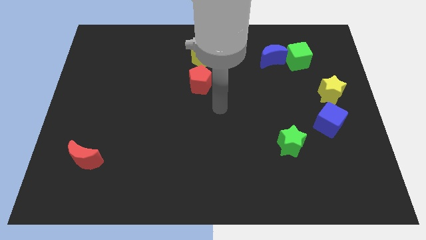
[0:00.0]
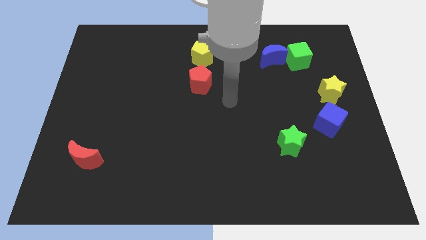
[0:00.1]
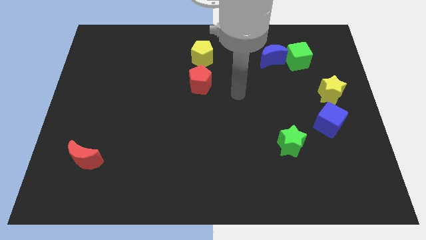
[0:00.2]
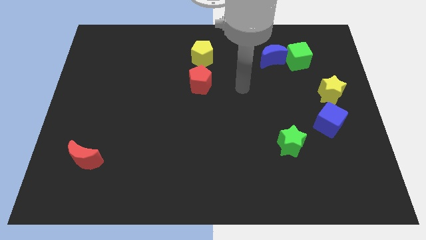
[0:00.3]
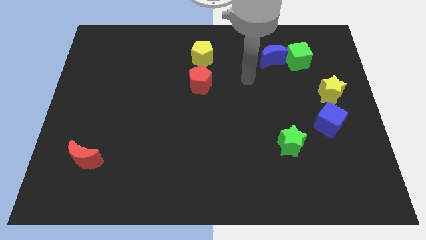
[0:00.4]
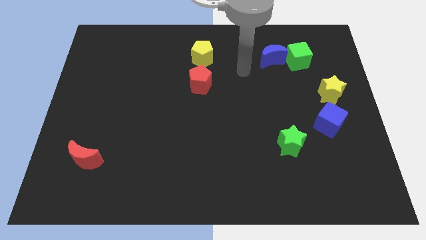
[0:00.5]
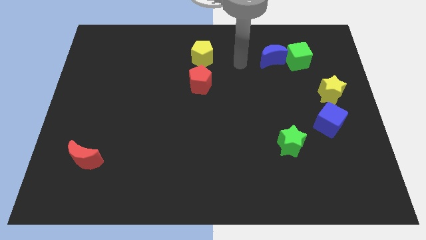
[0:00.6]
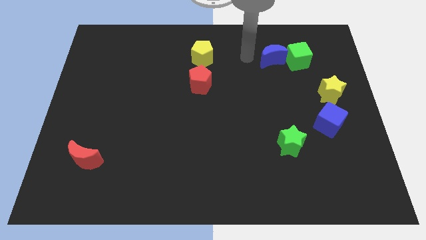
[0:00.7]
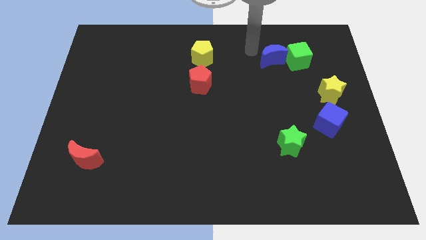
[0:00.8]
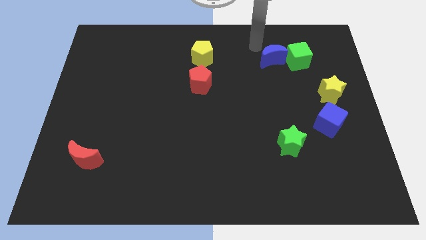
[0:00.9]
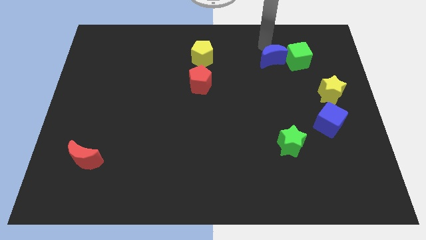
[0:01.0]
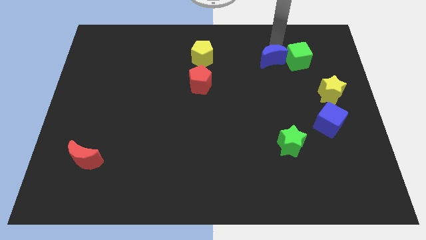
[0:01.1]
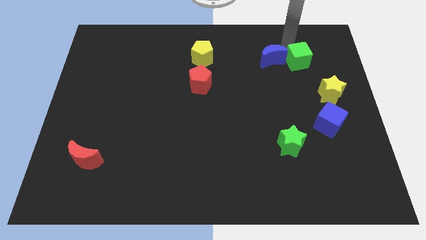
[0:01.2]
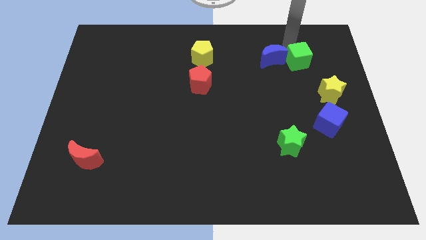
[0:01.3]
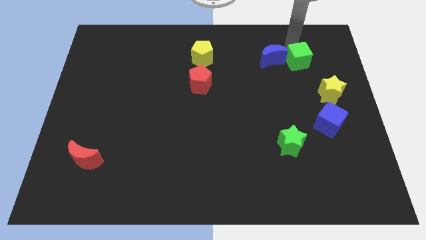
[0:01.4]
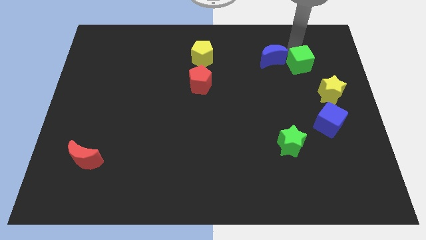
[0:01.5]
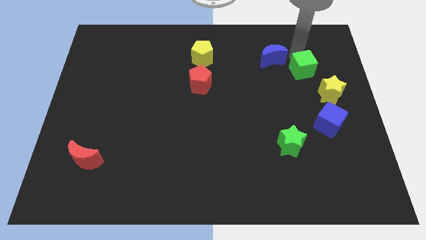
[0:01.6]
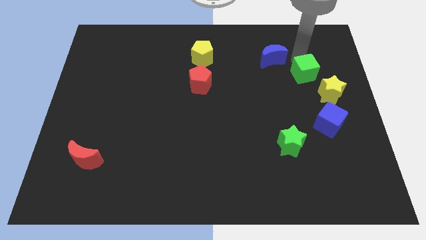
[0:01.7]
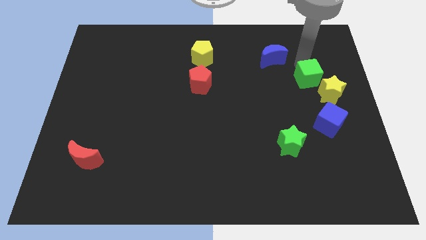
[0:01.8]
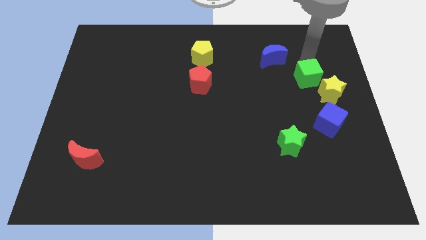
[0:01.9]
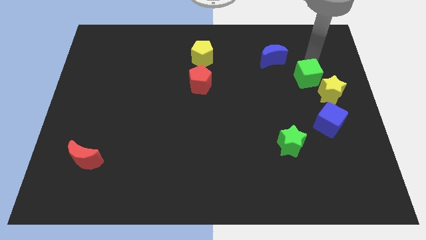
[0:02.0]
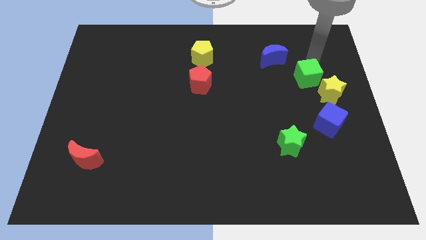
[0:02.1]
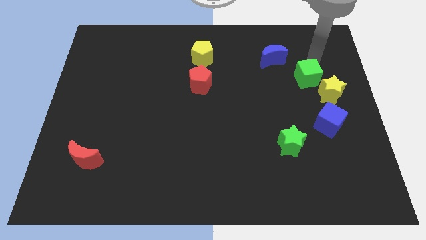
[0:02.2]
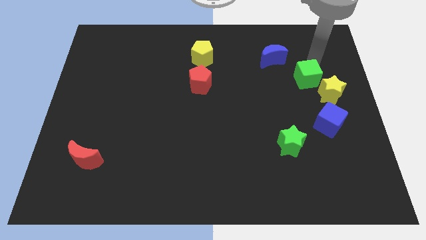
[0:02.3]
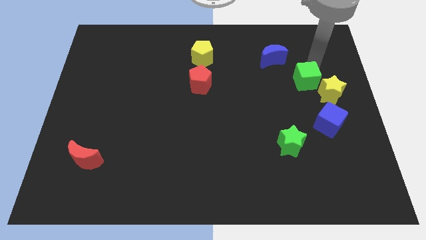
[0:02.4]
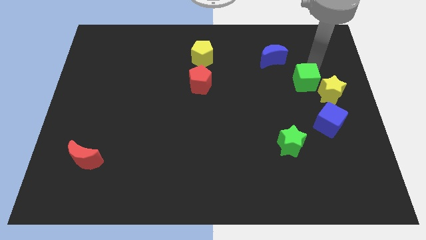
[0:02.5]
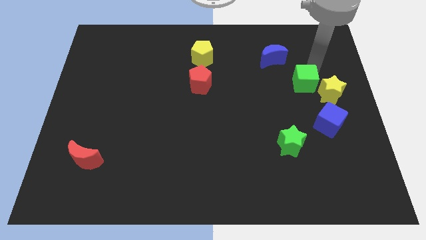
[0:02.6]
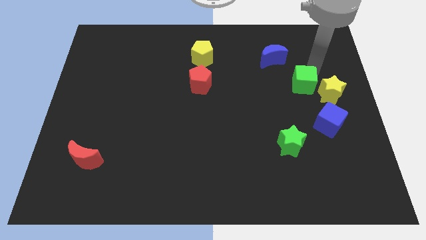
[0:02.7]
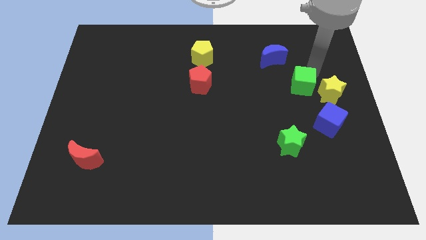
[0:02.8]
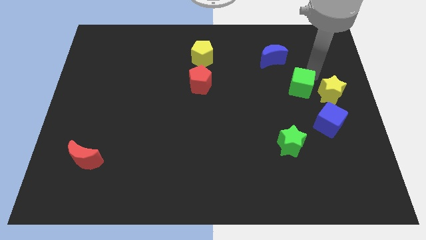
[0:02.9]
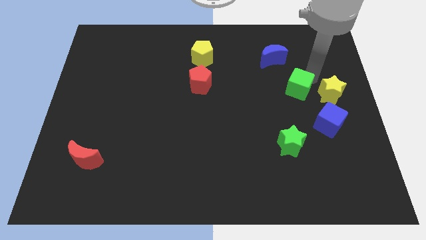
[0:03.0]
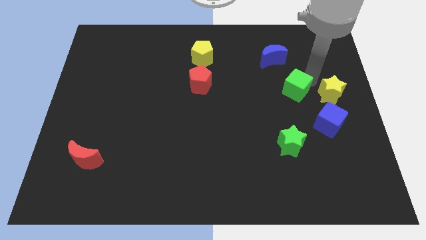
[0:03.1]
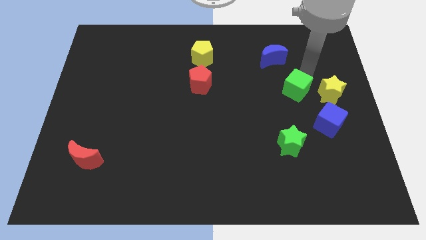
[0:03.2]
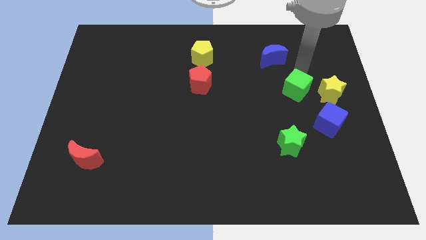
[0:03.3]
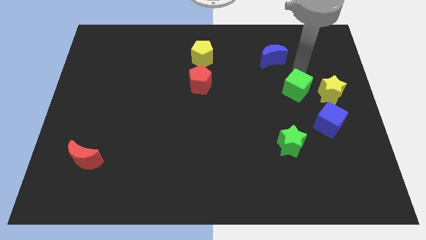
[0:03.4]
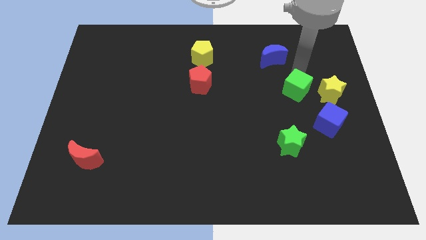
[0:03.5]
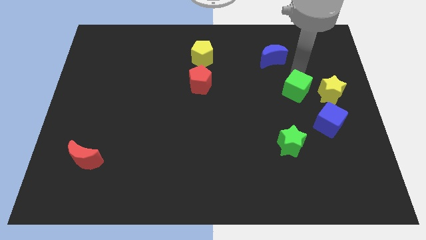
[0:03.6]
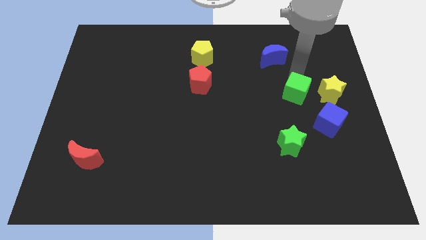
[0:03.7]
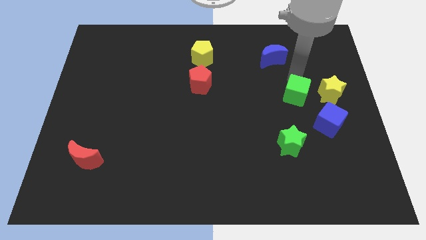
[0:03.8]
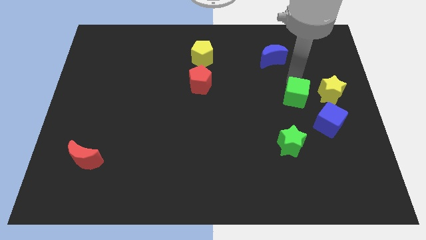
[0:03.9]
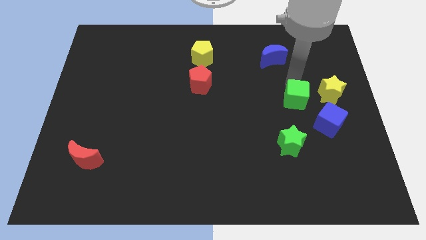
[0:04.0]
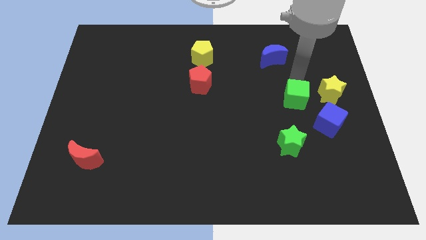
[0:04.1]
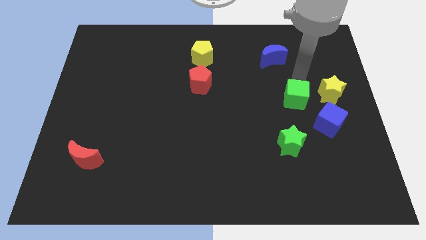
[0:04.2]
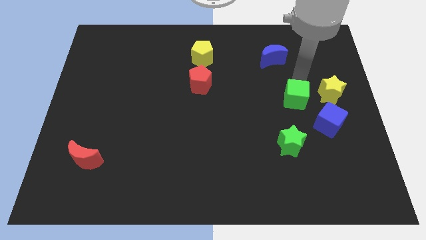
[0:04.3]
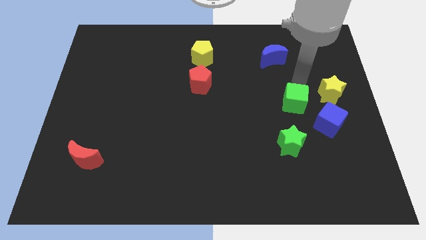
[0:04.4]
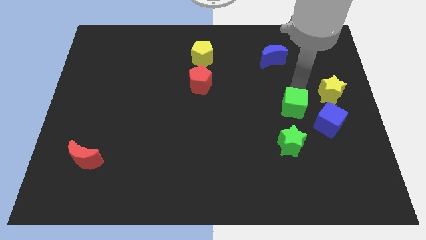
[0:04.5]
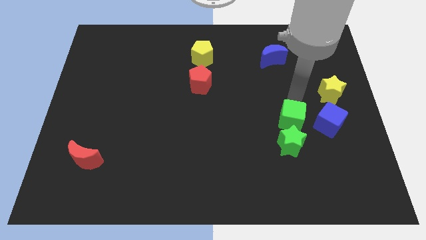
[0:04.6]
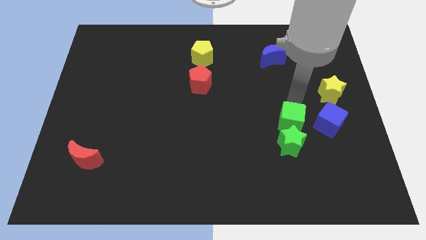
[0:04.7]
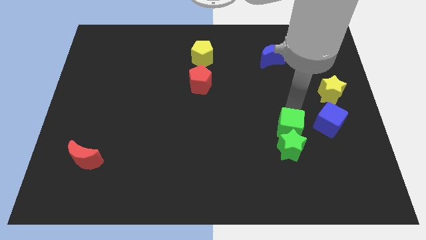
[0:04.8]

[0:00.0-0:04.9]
slide the green cube close to the green star

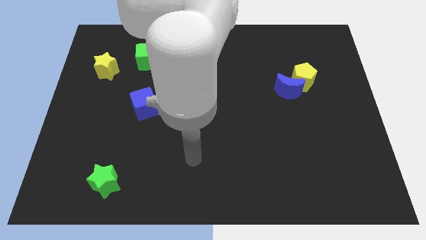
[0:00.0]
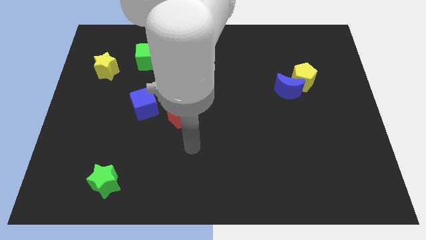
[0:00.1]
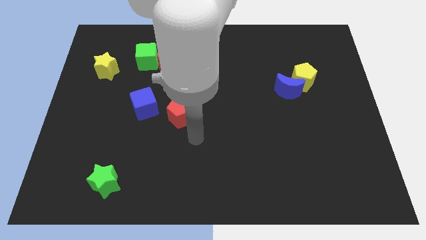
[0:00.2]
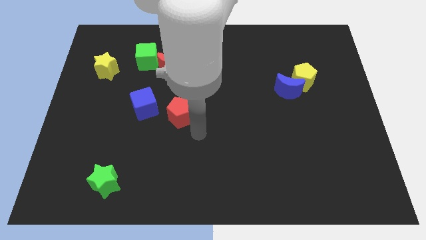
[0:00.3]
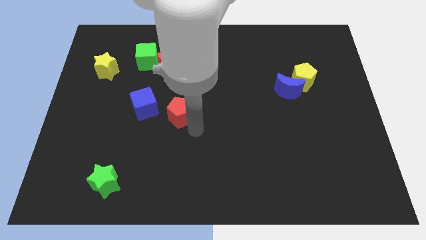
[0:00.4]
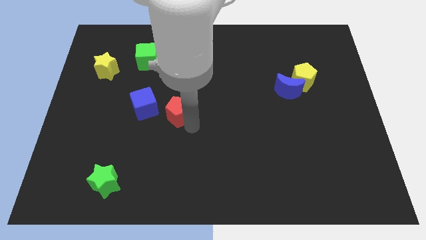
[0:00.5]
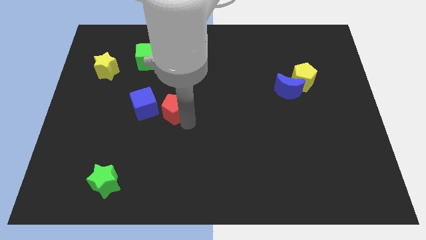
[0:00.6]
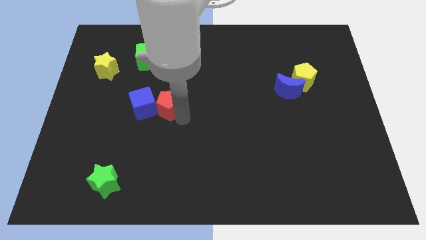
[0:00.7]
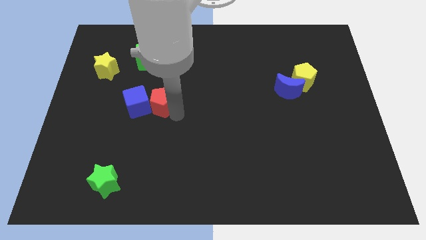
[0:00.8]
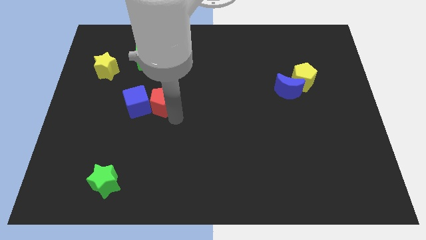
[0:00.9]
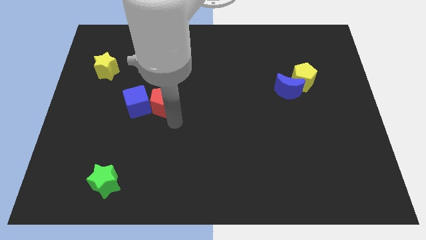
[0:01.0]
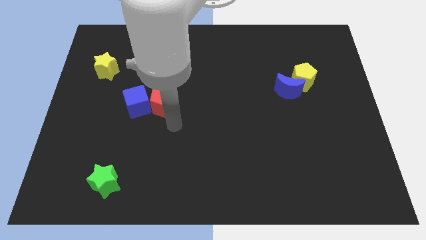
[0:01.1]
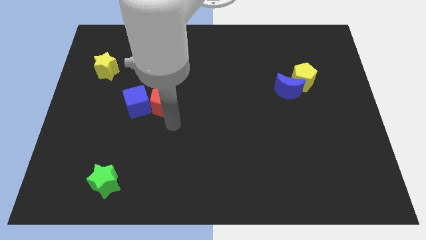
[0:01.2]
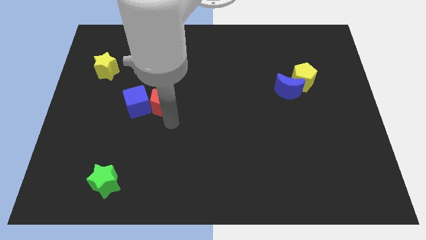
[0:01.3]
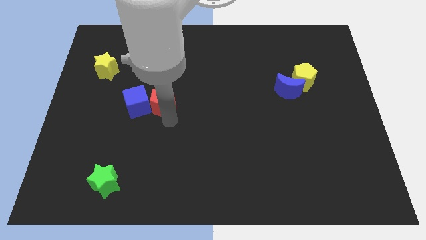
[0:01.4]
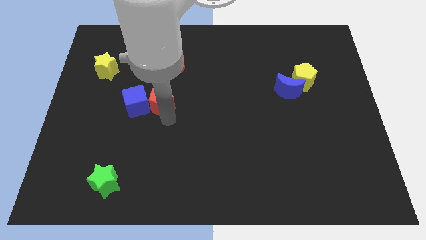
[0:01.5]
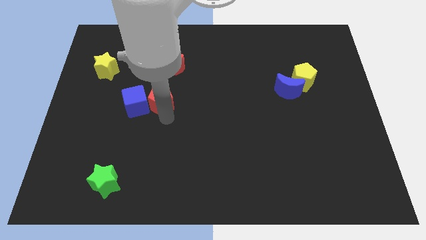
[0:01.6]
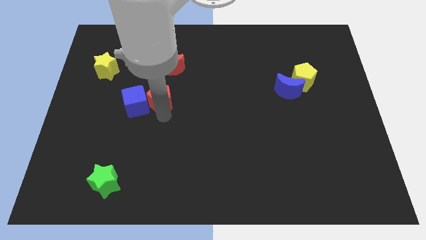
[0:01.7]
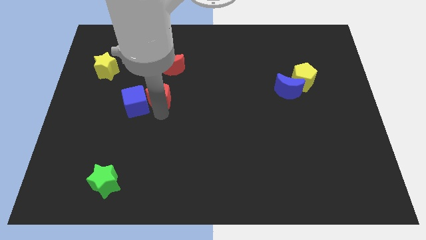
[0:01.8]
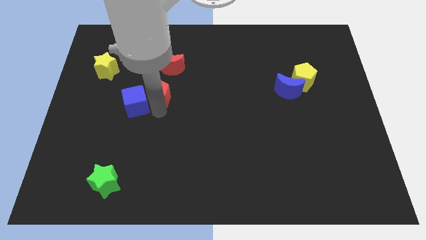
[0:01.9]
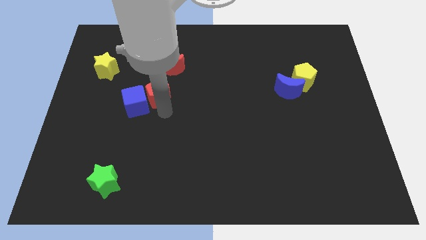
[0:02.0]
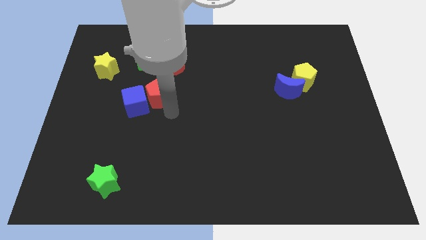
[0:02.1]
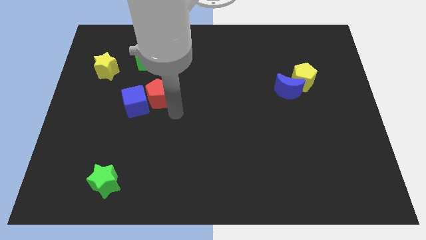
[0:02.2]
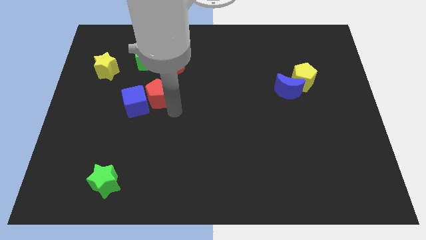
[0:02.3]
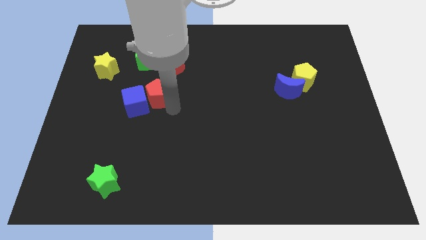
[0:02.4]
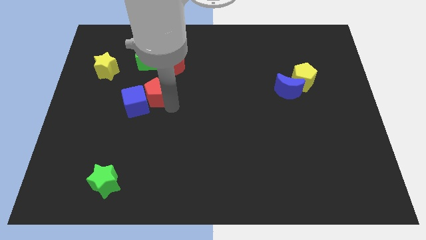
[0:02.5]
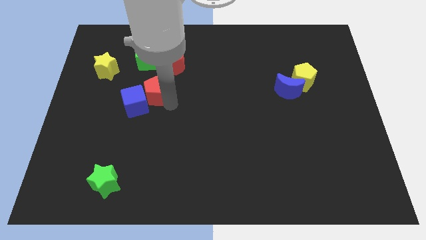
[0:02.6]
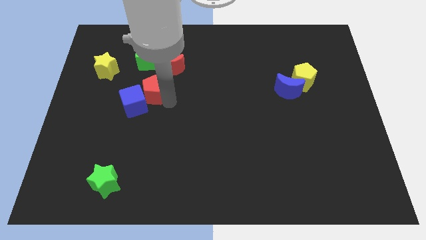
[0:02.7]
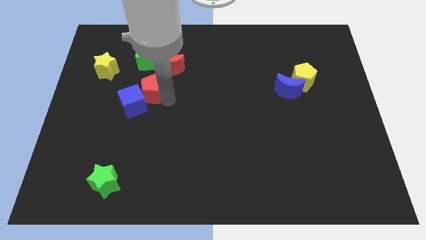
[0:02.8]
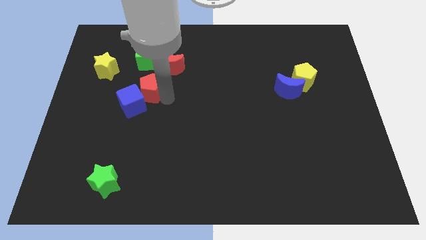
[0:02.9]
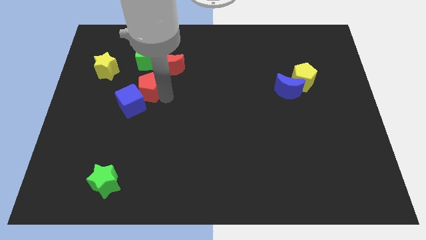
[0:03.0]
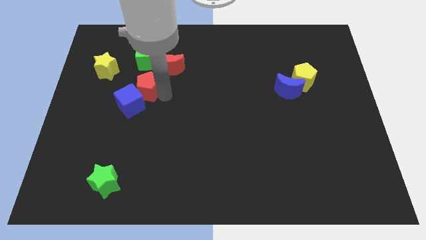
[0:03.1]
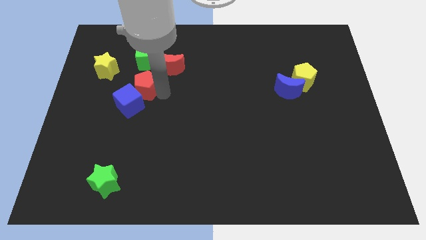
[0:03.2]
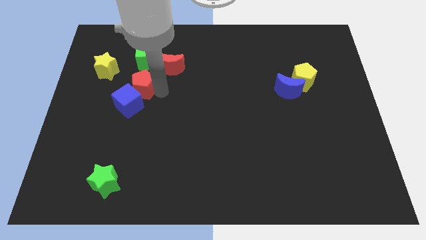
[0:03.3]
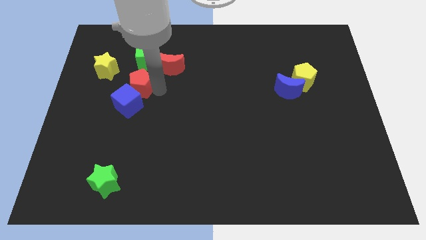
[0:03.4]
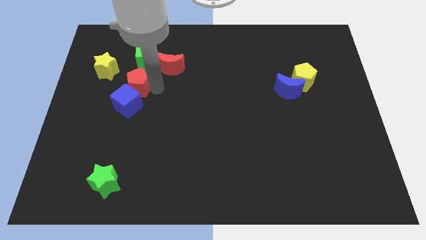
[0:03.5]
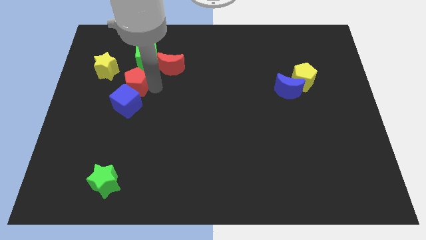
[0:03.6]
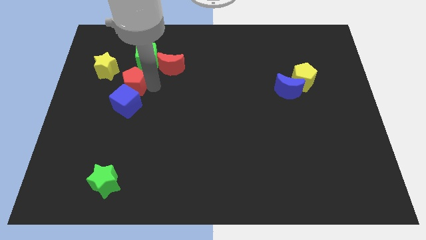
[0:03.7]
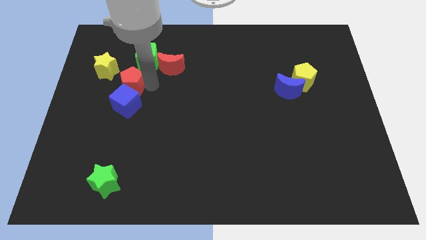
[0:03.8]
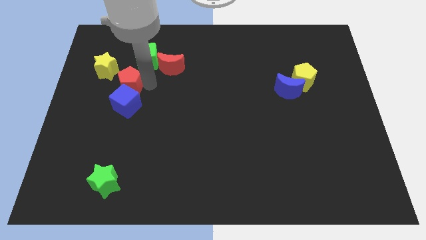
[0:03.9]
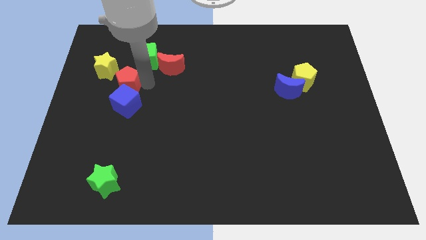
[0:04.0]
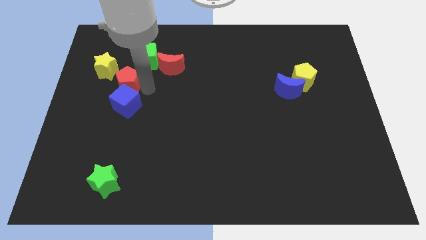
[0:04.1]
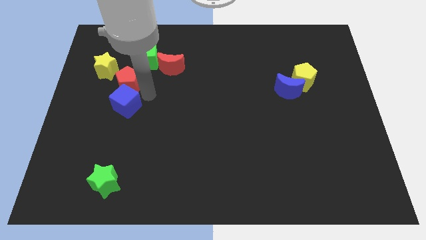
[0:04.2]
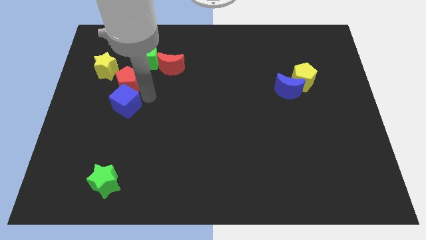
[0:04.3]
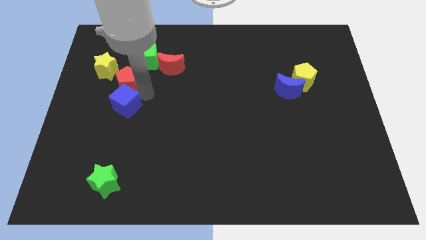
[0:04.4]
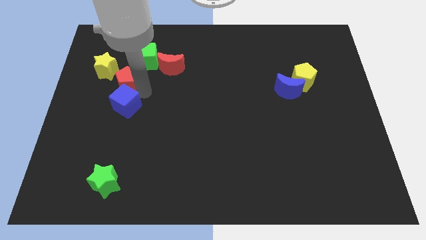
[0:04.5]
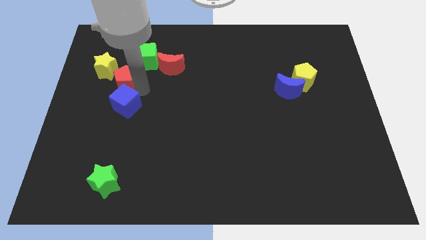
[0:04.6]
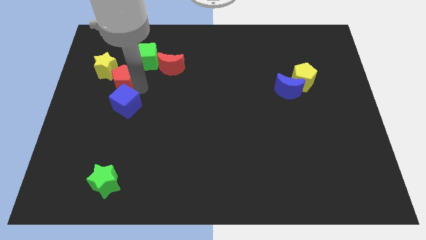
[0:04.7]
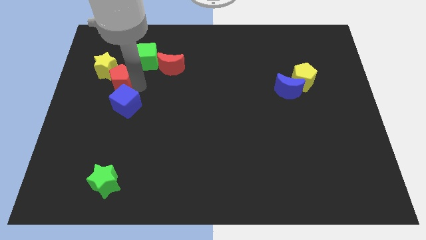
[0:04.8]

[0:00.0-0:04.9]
slide the red pentagon close to the yellow star
